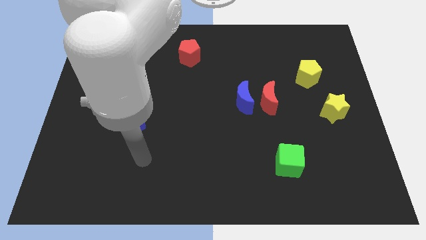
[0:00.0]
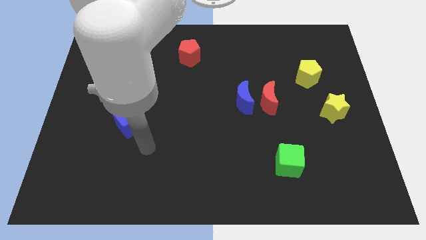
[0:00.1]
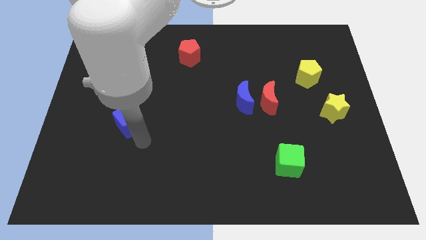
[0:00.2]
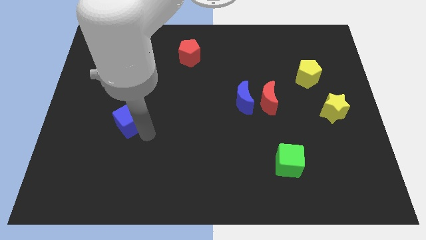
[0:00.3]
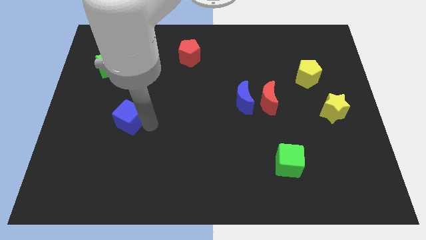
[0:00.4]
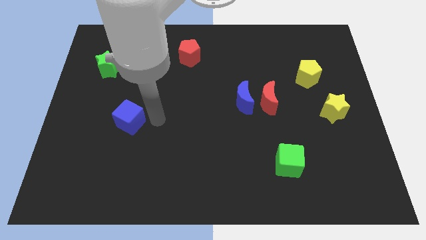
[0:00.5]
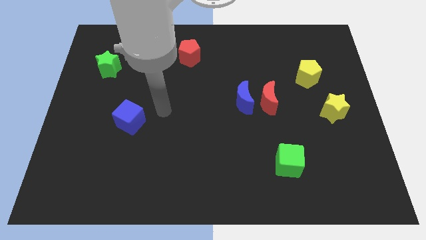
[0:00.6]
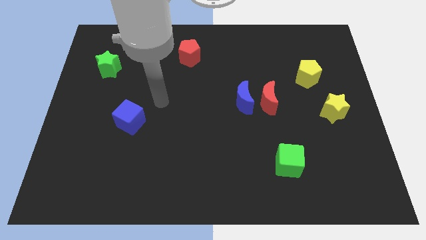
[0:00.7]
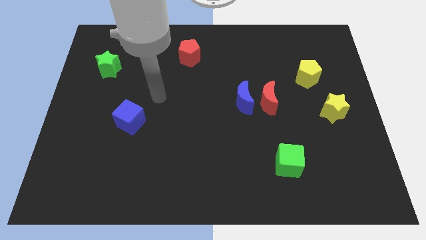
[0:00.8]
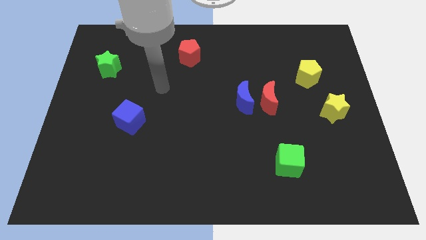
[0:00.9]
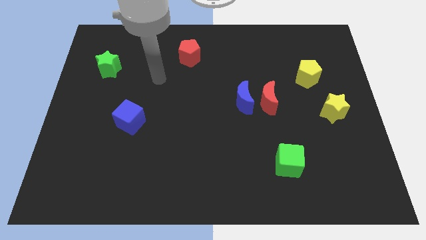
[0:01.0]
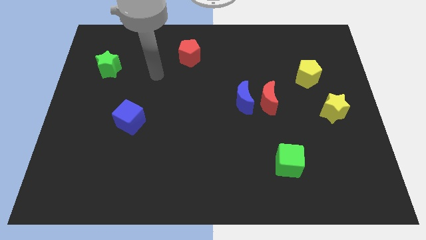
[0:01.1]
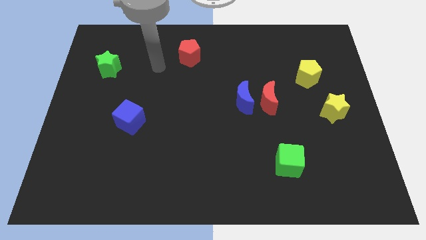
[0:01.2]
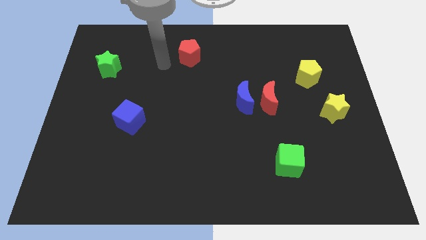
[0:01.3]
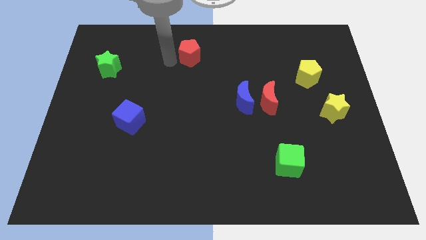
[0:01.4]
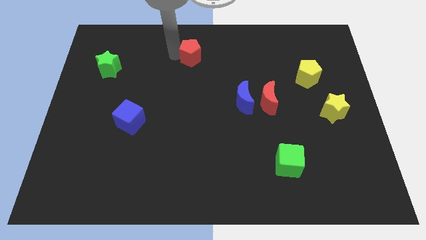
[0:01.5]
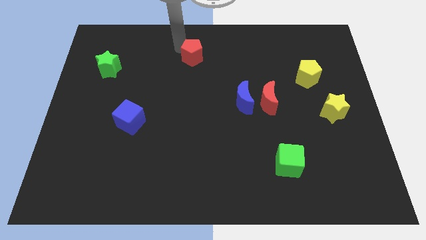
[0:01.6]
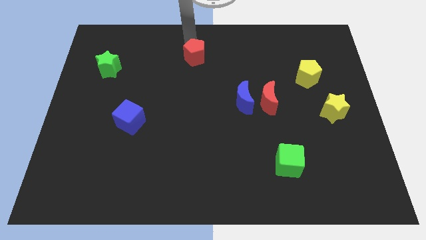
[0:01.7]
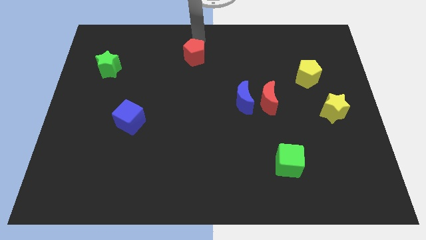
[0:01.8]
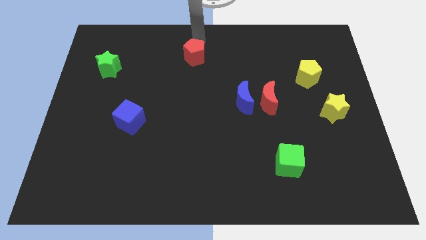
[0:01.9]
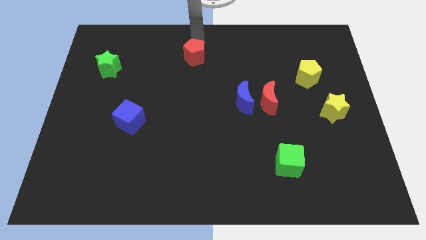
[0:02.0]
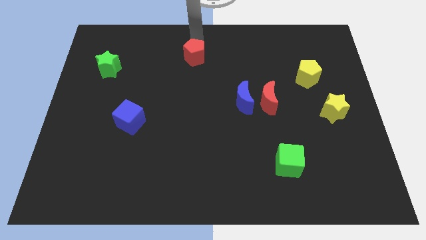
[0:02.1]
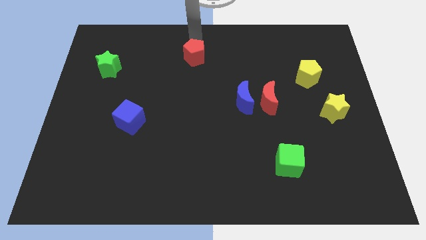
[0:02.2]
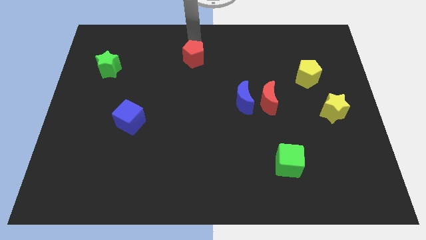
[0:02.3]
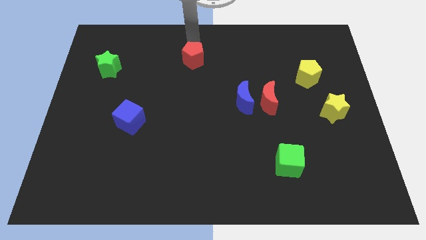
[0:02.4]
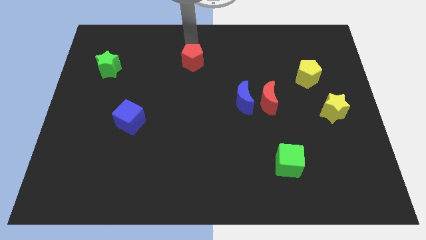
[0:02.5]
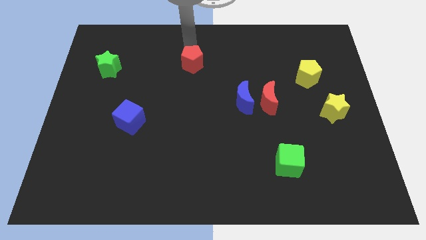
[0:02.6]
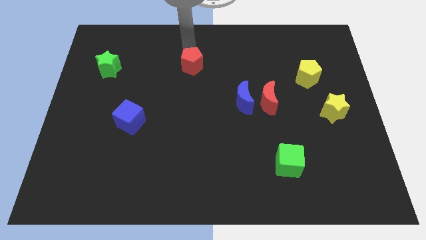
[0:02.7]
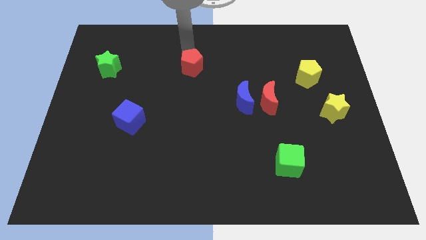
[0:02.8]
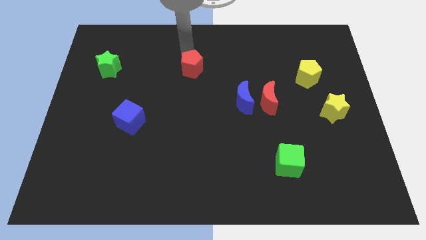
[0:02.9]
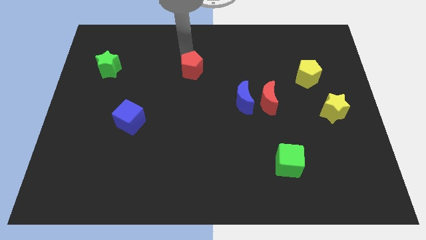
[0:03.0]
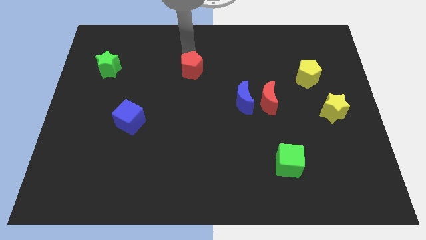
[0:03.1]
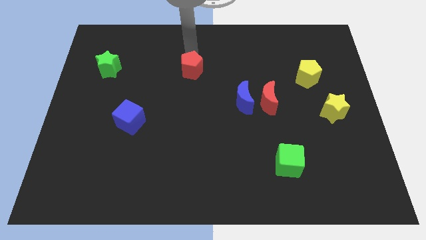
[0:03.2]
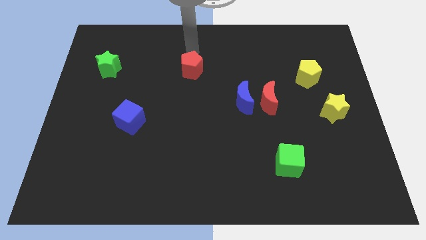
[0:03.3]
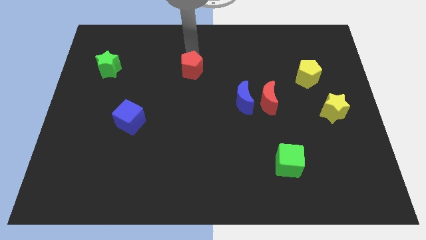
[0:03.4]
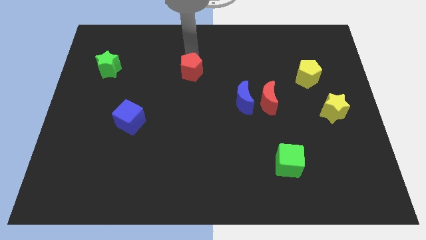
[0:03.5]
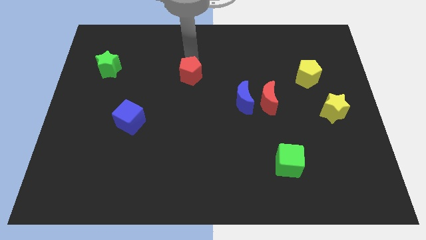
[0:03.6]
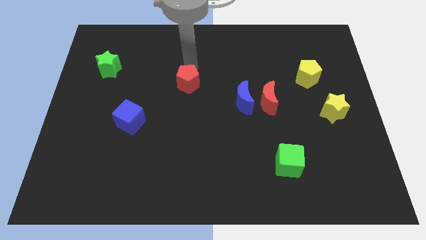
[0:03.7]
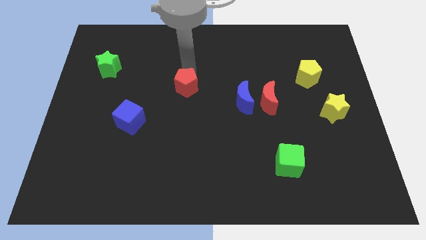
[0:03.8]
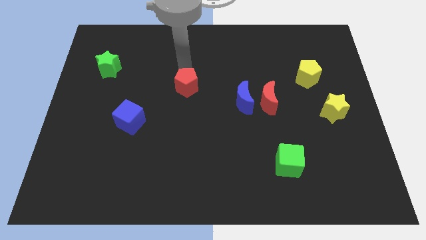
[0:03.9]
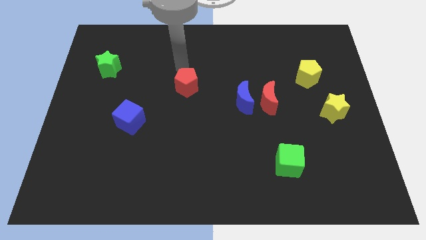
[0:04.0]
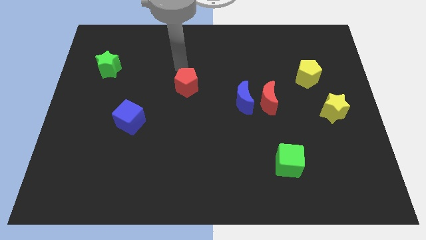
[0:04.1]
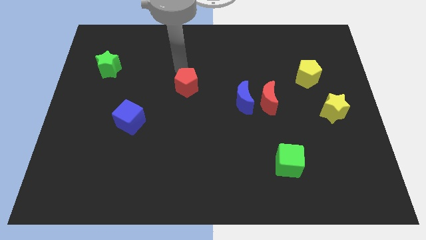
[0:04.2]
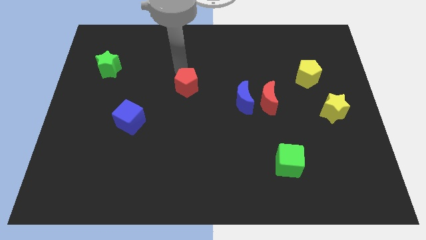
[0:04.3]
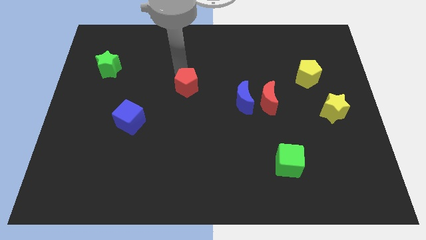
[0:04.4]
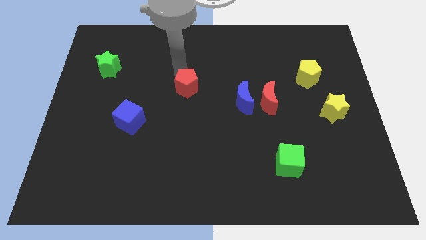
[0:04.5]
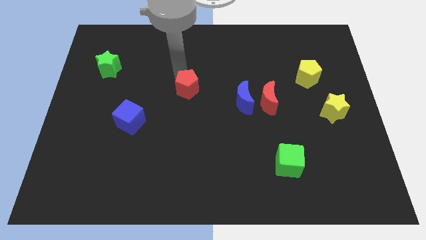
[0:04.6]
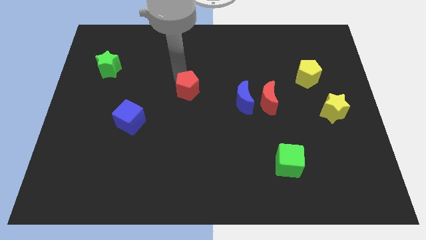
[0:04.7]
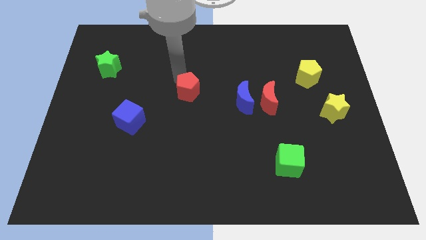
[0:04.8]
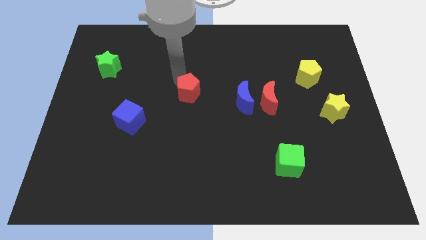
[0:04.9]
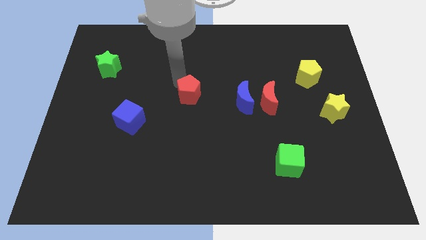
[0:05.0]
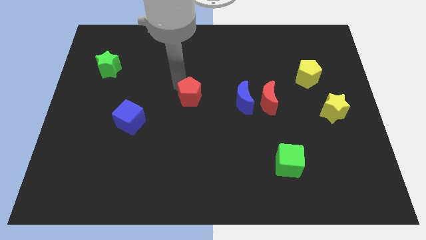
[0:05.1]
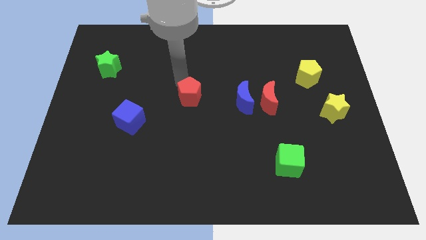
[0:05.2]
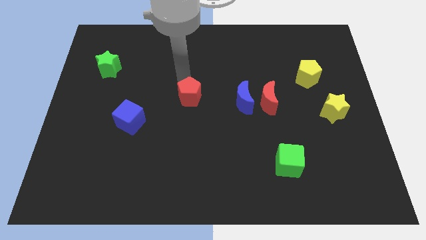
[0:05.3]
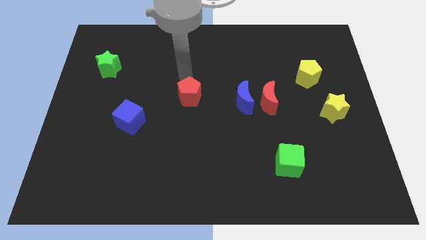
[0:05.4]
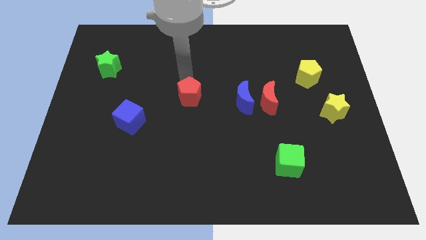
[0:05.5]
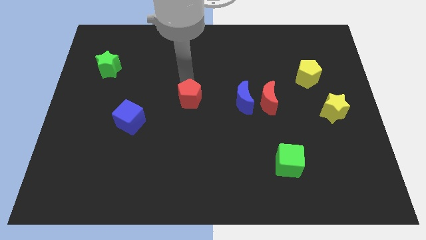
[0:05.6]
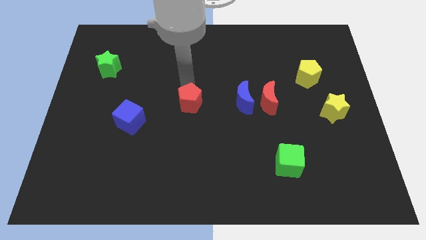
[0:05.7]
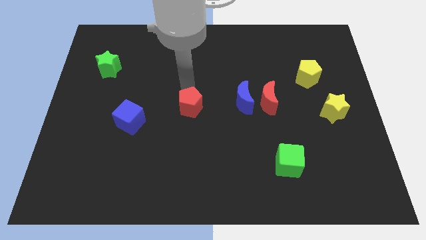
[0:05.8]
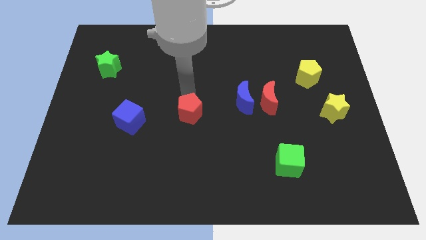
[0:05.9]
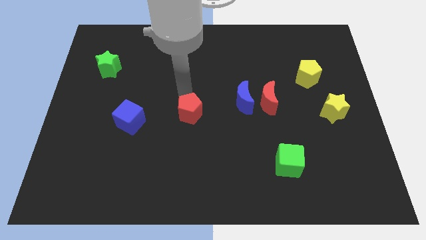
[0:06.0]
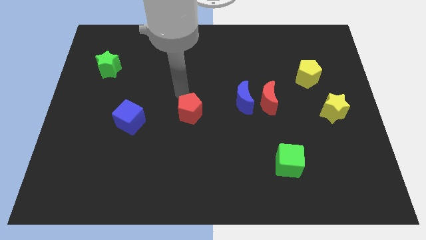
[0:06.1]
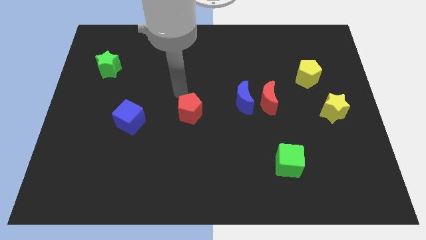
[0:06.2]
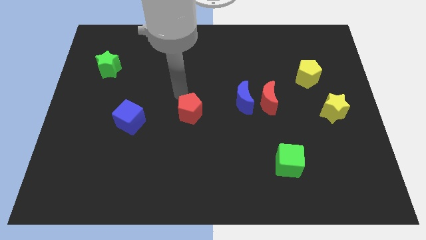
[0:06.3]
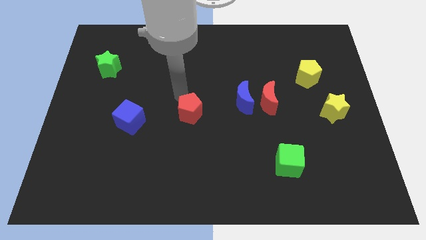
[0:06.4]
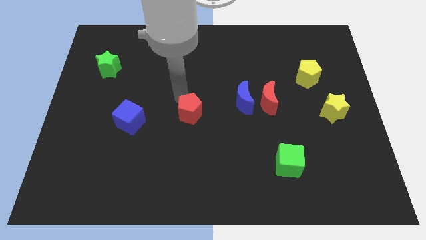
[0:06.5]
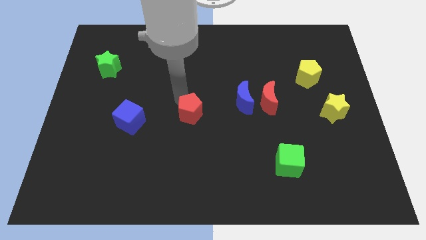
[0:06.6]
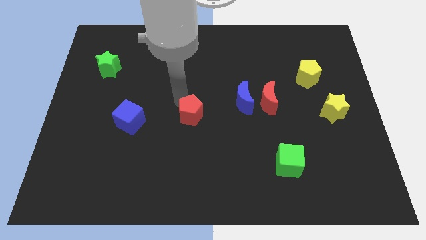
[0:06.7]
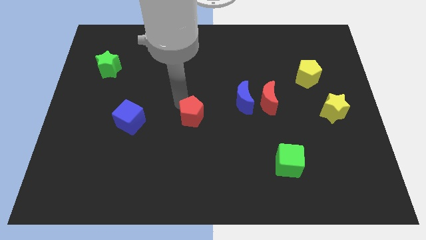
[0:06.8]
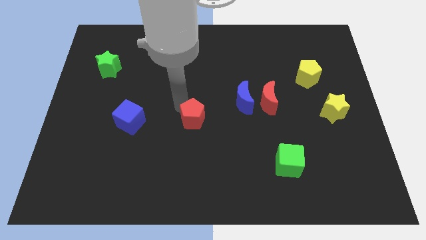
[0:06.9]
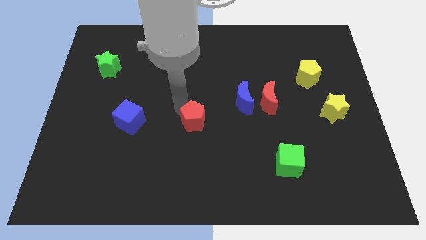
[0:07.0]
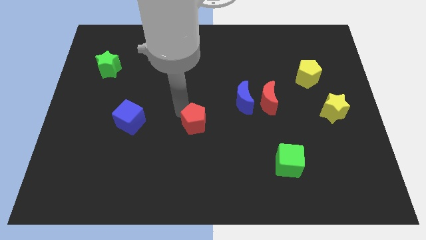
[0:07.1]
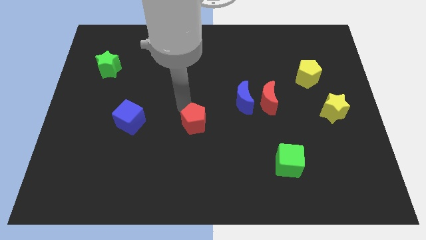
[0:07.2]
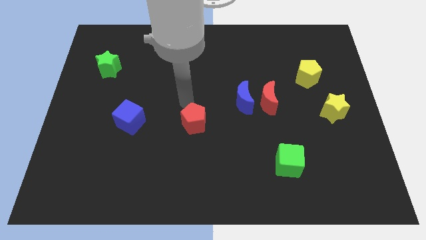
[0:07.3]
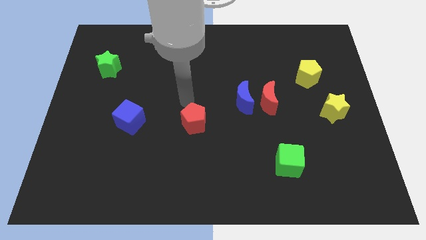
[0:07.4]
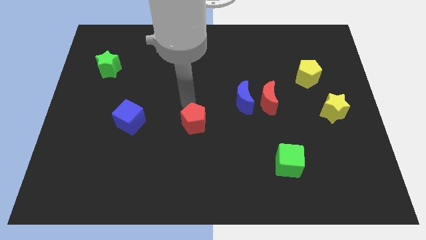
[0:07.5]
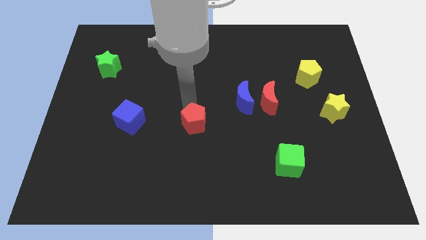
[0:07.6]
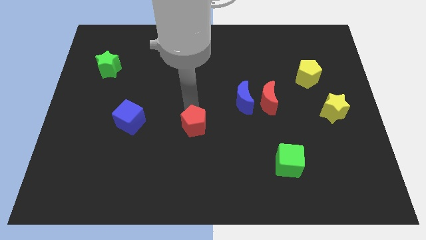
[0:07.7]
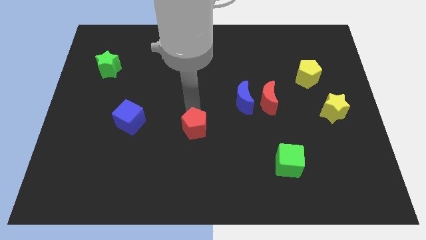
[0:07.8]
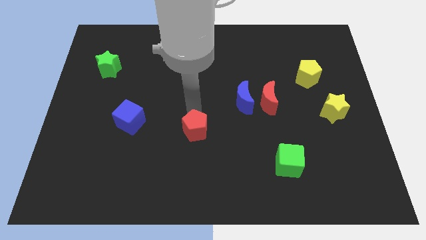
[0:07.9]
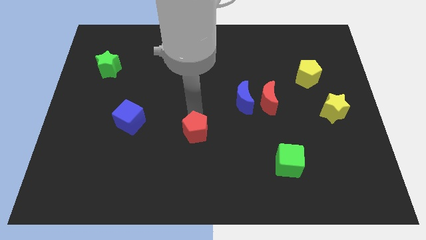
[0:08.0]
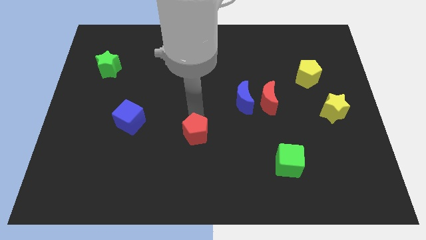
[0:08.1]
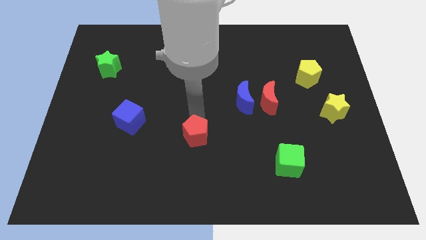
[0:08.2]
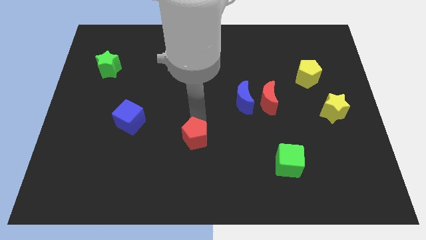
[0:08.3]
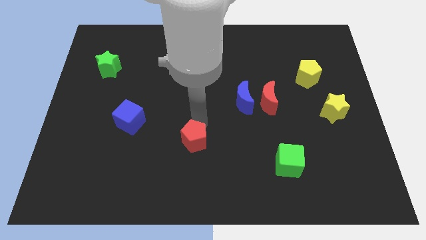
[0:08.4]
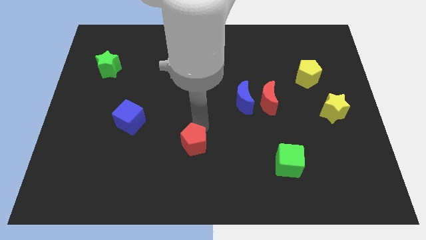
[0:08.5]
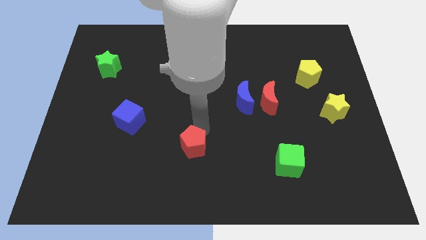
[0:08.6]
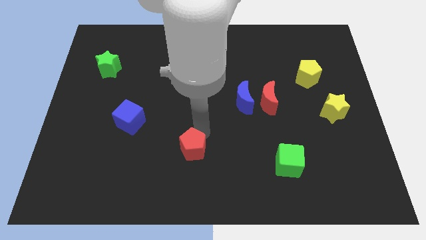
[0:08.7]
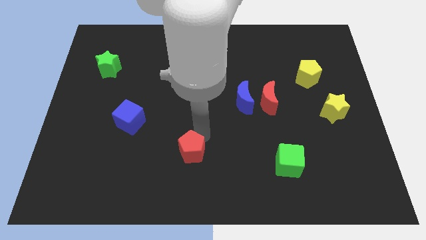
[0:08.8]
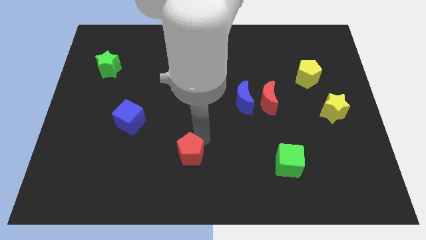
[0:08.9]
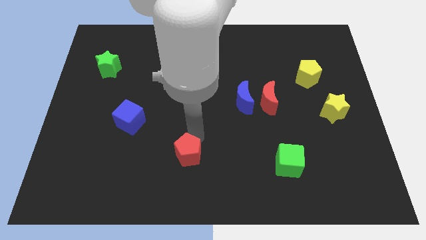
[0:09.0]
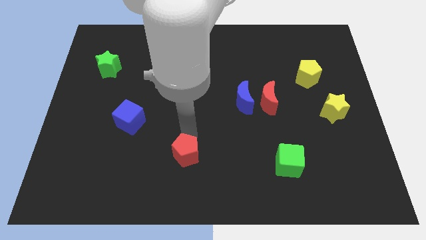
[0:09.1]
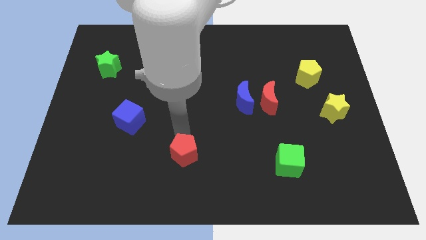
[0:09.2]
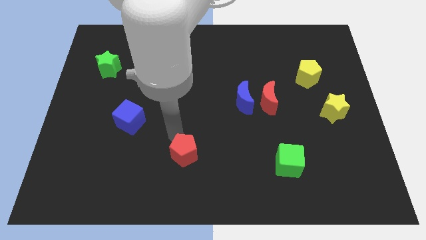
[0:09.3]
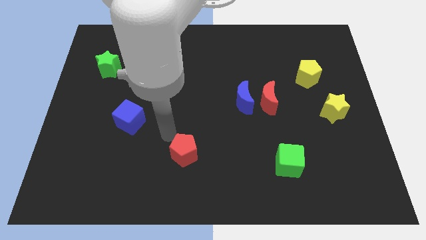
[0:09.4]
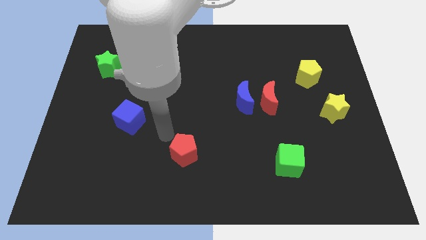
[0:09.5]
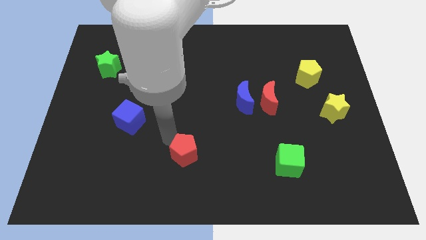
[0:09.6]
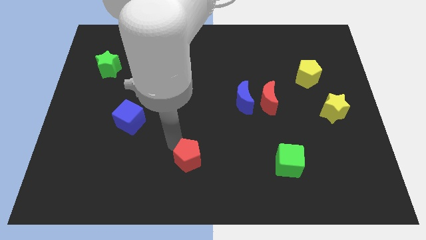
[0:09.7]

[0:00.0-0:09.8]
put the red pentagon to the bottom side
